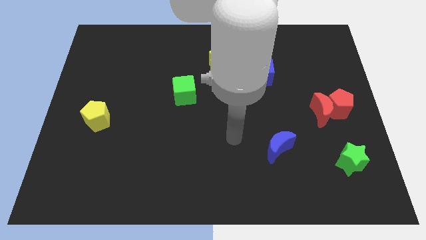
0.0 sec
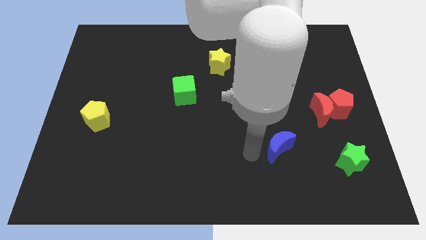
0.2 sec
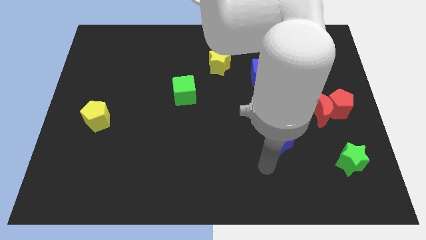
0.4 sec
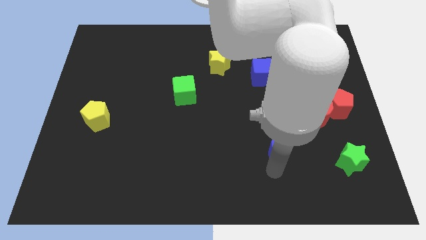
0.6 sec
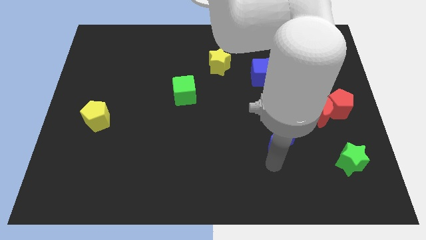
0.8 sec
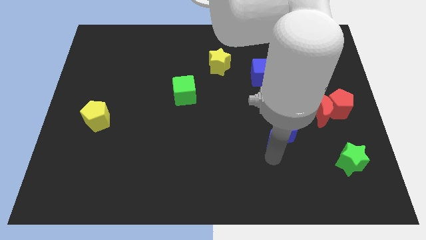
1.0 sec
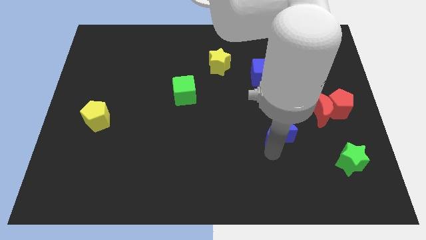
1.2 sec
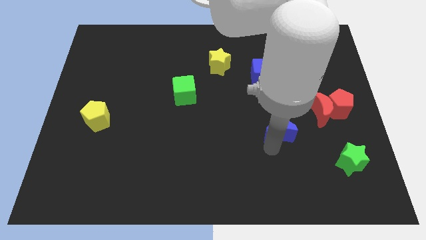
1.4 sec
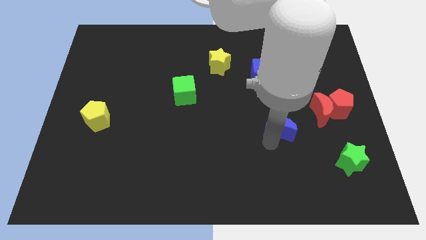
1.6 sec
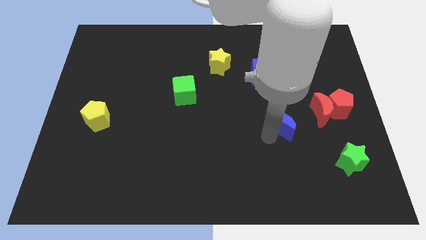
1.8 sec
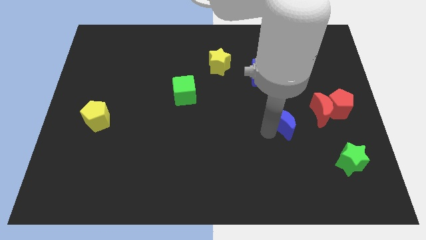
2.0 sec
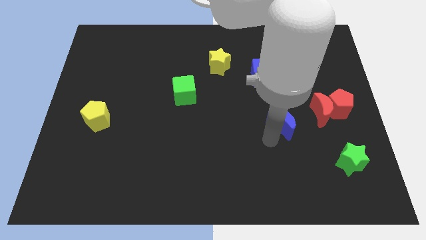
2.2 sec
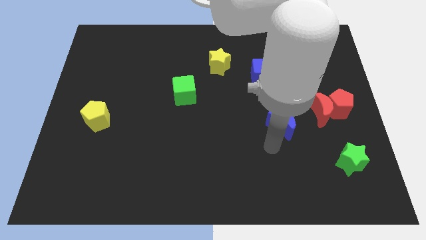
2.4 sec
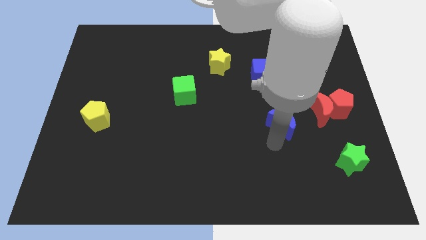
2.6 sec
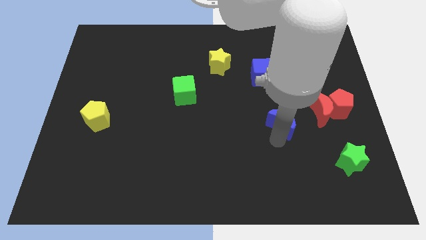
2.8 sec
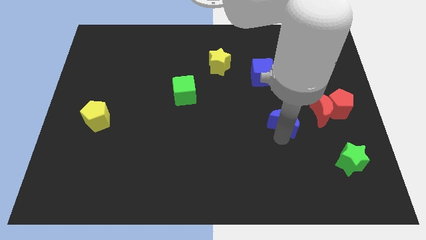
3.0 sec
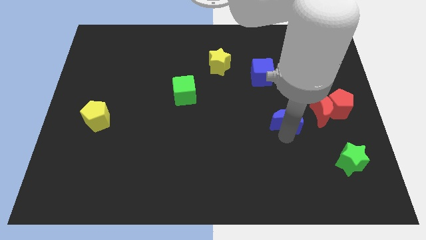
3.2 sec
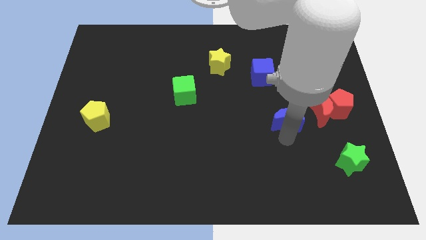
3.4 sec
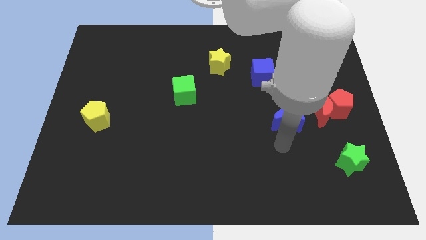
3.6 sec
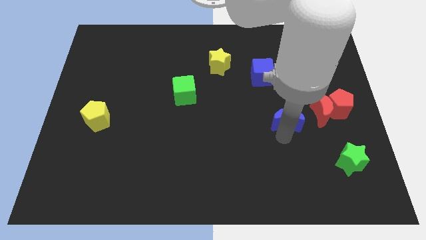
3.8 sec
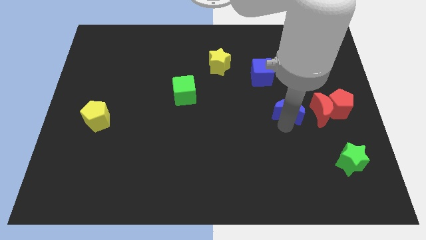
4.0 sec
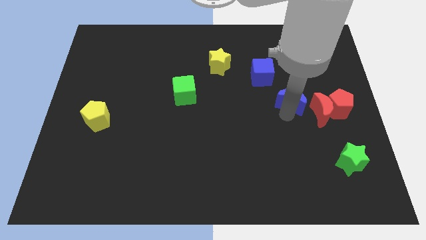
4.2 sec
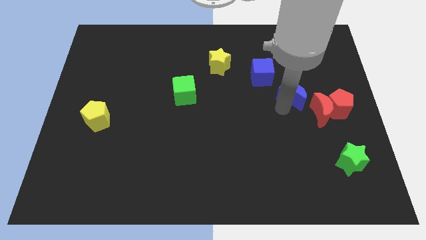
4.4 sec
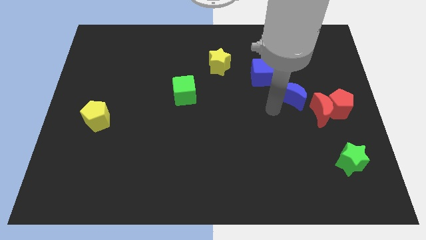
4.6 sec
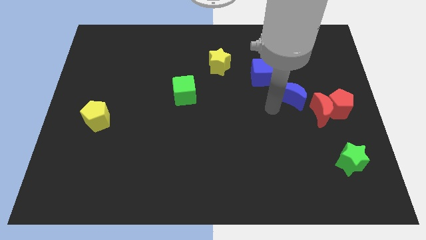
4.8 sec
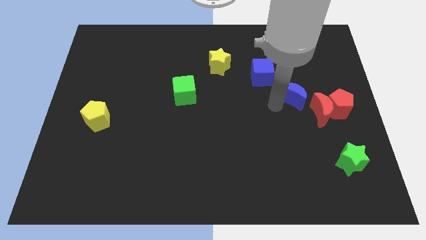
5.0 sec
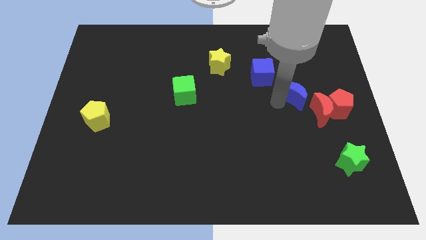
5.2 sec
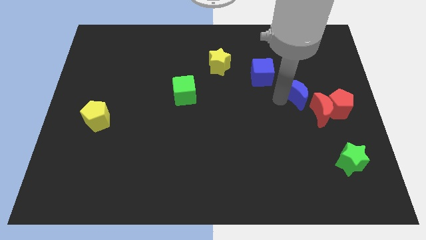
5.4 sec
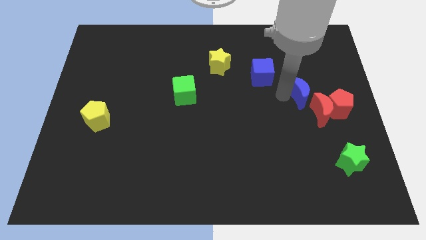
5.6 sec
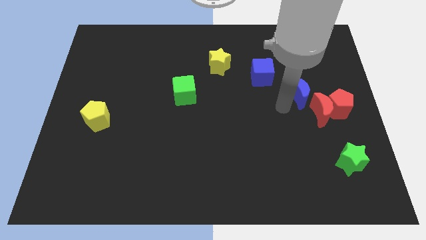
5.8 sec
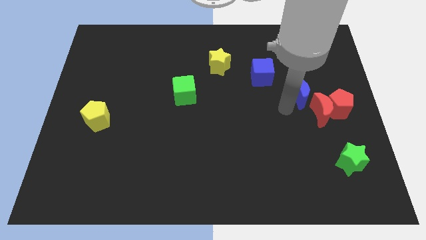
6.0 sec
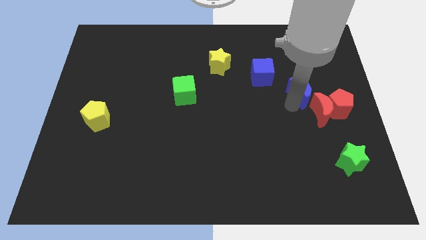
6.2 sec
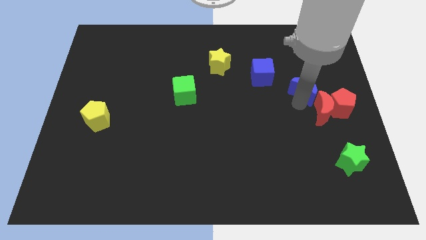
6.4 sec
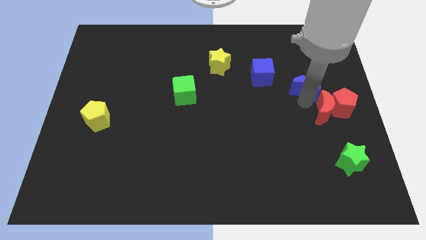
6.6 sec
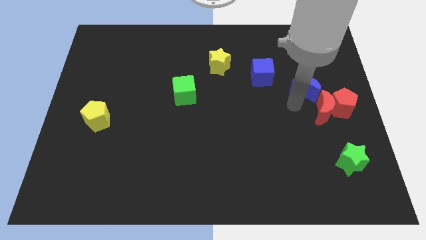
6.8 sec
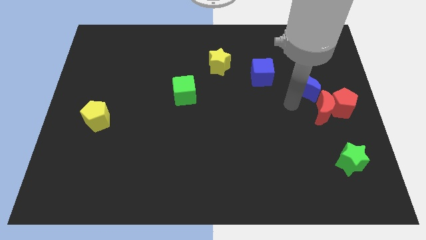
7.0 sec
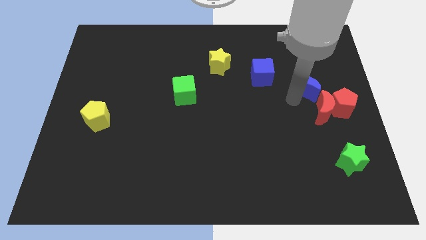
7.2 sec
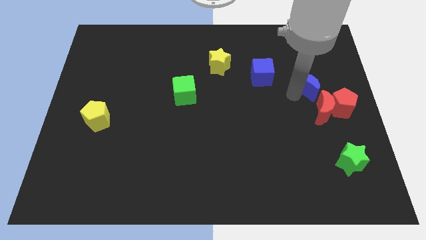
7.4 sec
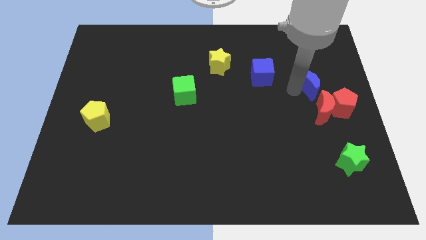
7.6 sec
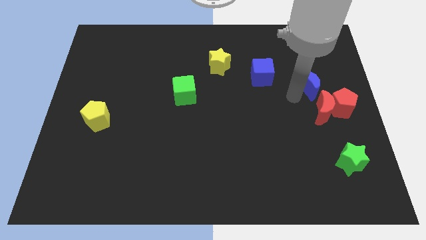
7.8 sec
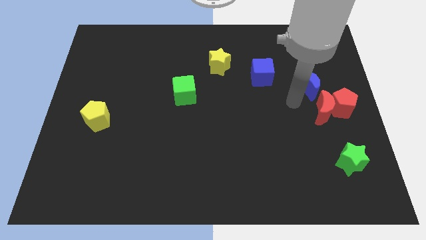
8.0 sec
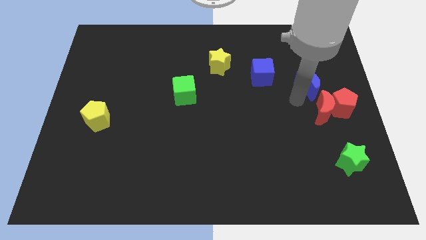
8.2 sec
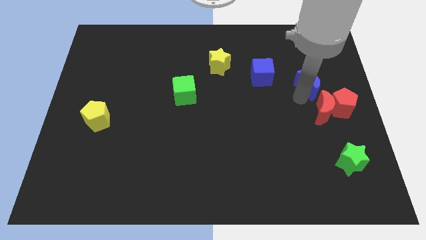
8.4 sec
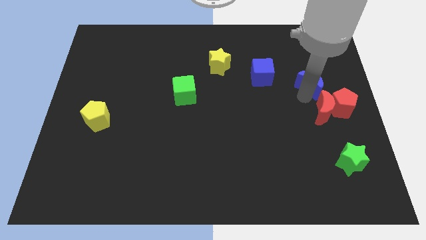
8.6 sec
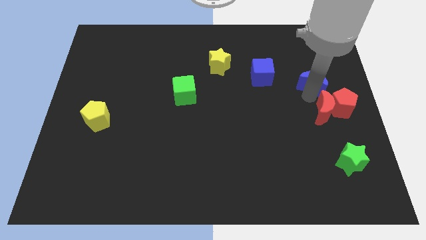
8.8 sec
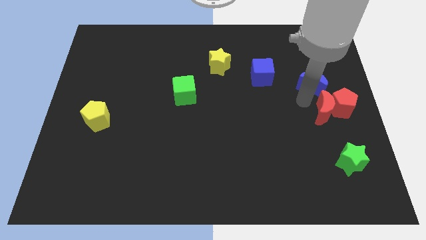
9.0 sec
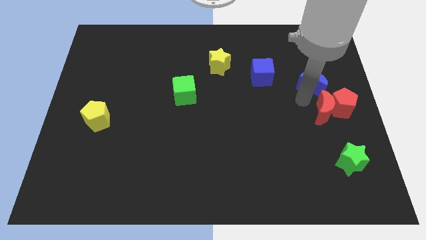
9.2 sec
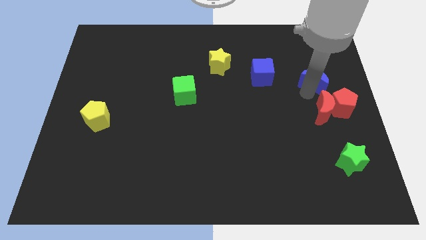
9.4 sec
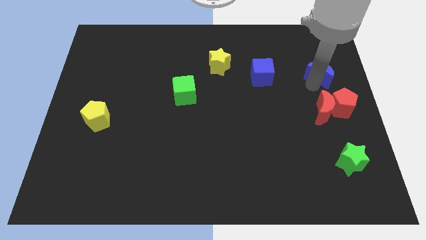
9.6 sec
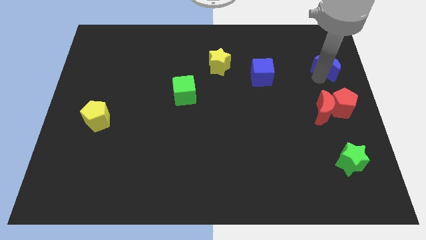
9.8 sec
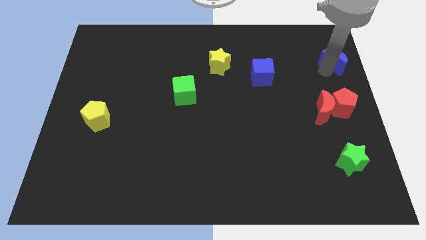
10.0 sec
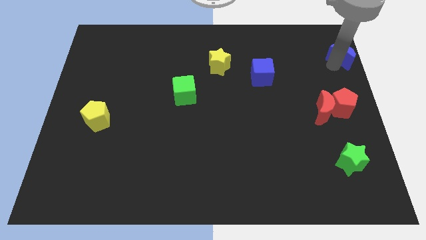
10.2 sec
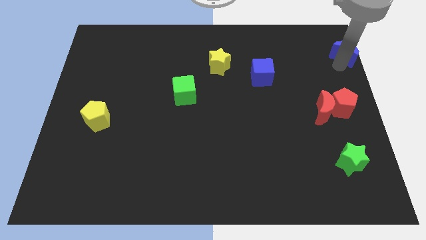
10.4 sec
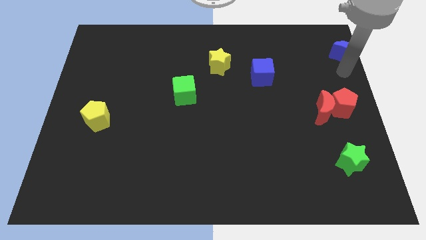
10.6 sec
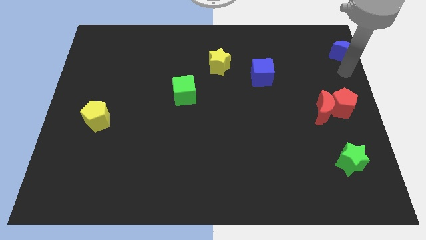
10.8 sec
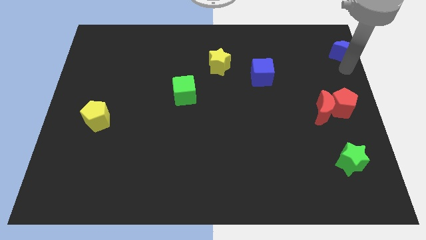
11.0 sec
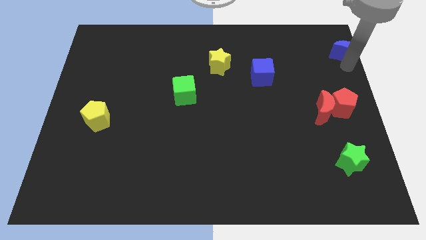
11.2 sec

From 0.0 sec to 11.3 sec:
move the blue moon to the top right of the board
